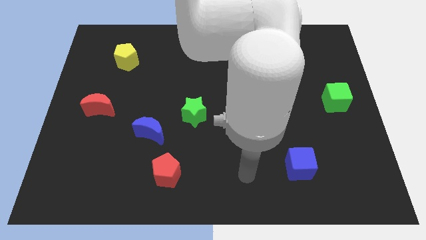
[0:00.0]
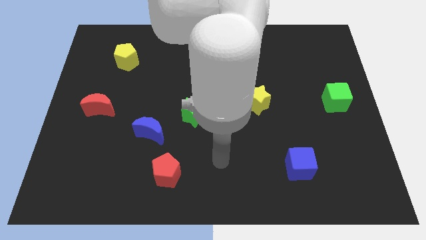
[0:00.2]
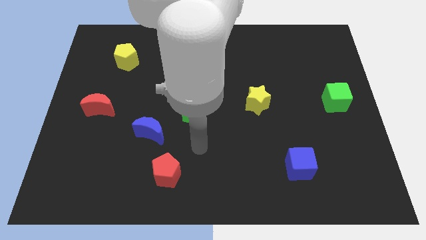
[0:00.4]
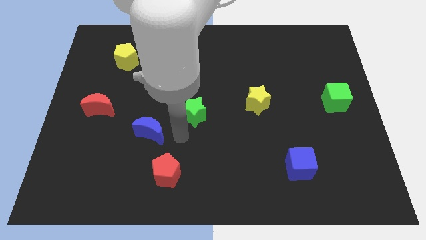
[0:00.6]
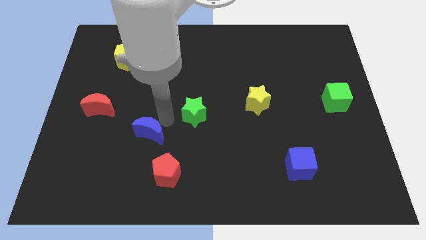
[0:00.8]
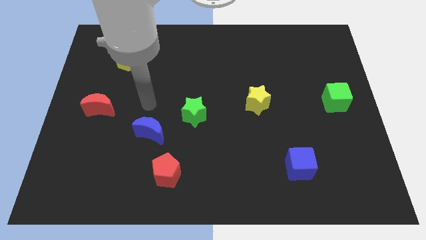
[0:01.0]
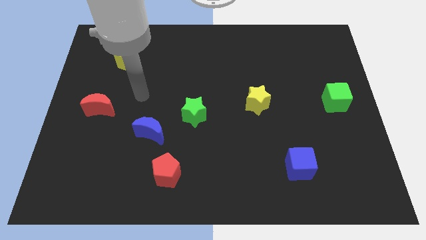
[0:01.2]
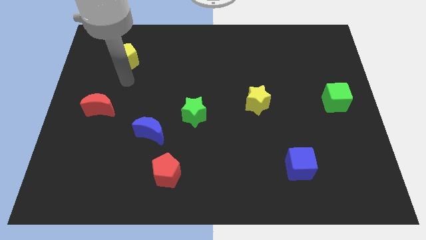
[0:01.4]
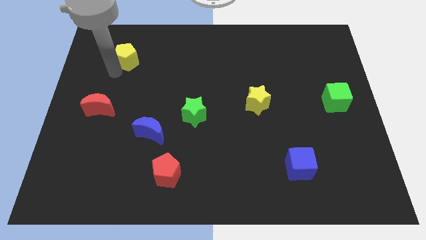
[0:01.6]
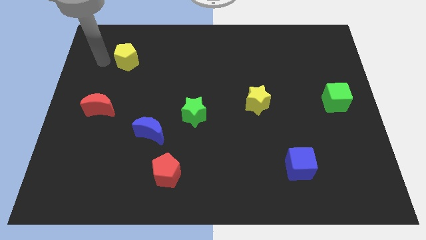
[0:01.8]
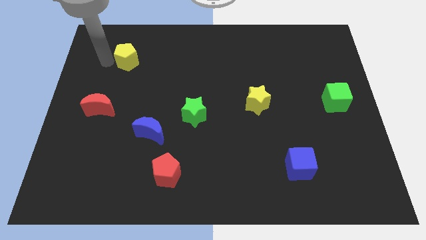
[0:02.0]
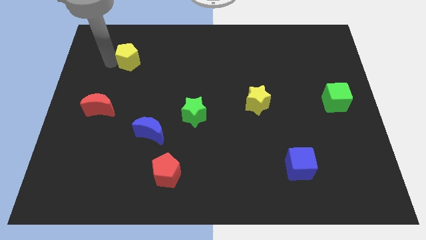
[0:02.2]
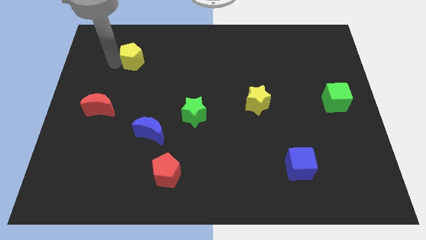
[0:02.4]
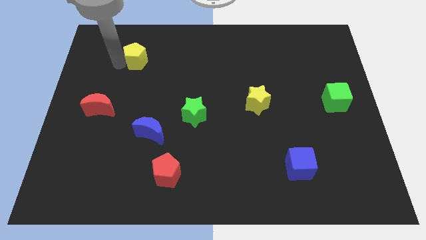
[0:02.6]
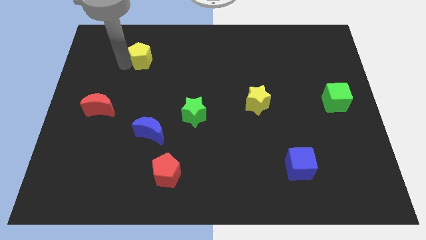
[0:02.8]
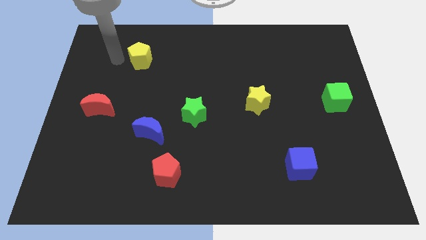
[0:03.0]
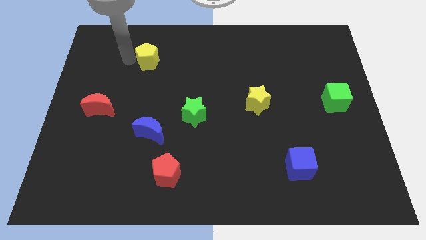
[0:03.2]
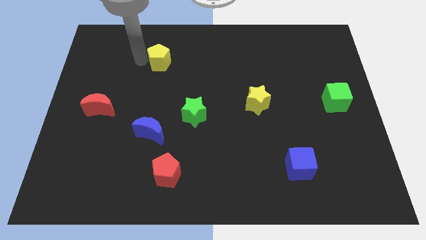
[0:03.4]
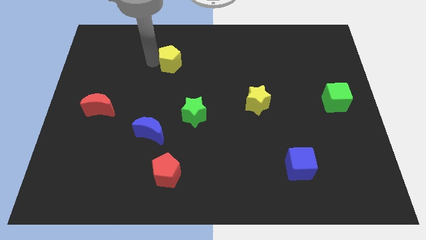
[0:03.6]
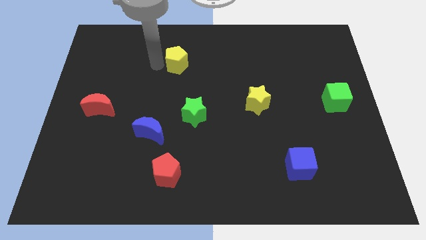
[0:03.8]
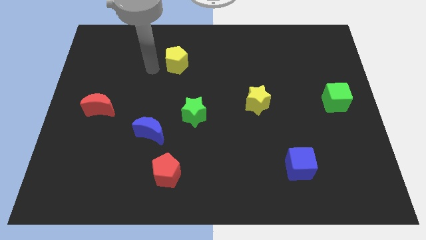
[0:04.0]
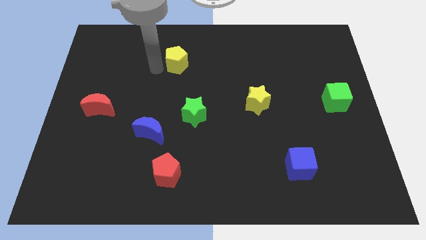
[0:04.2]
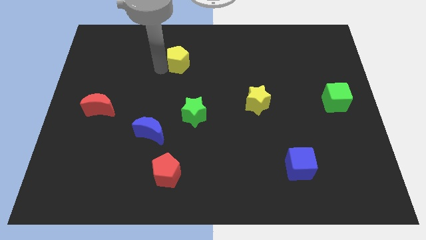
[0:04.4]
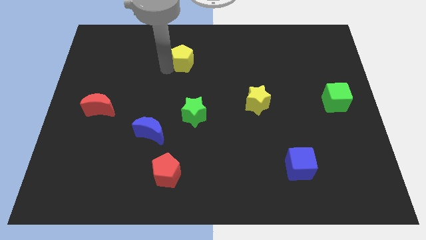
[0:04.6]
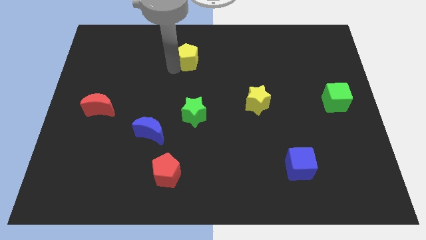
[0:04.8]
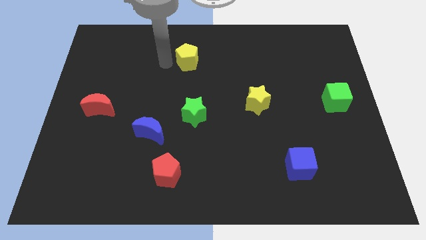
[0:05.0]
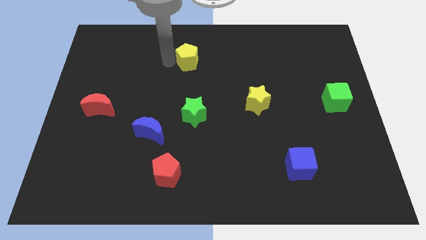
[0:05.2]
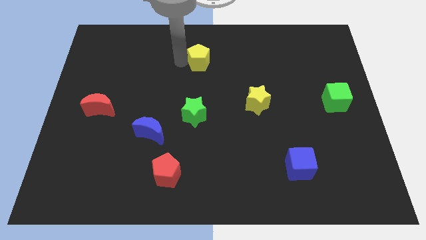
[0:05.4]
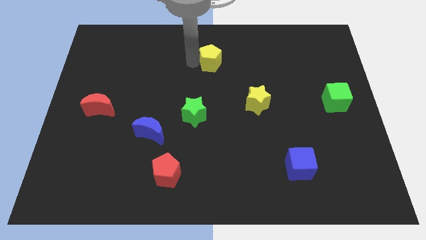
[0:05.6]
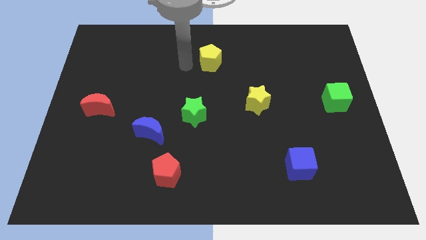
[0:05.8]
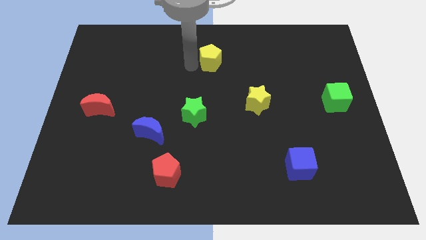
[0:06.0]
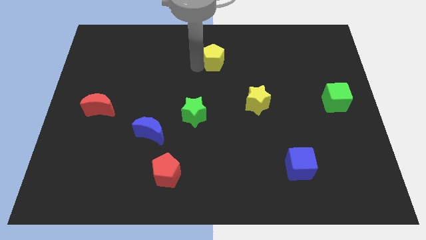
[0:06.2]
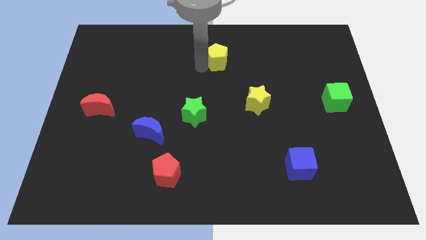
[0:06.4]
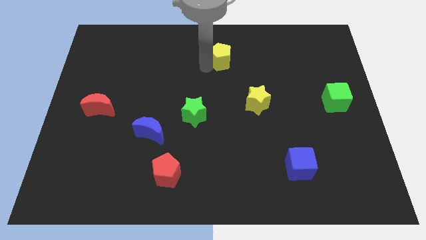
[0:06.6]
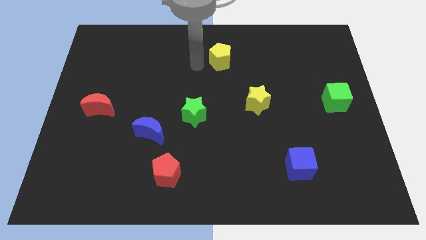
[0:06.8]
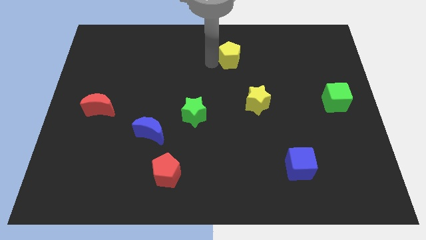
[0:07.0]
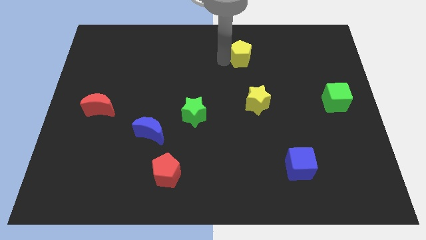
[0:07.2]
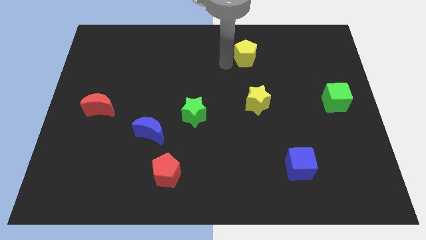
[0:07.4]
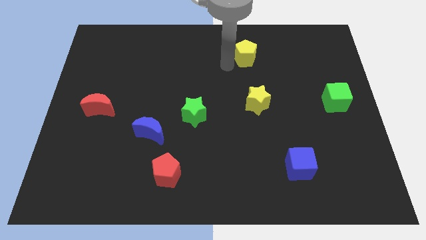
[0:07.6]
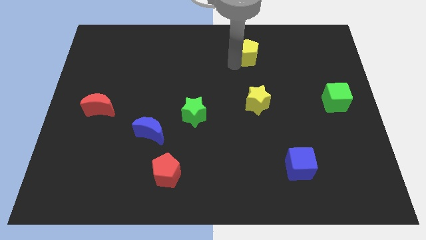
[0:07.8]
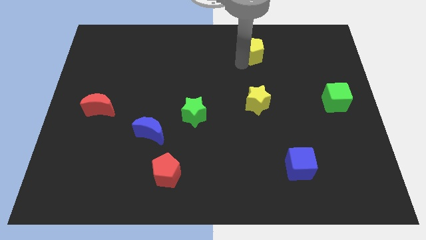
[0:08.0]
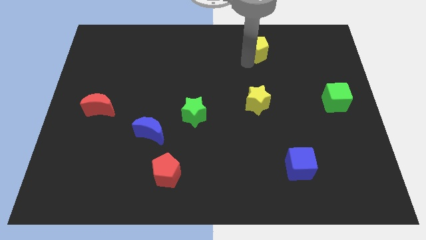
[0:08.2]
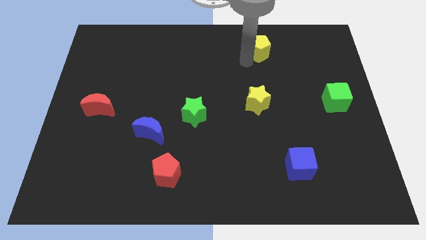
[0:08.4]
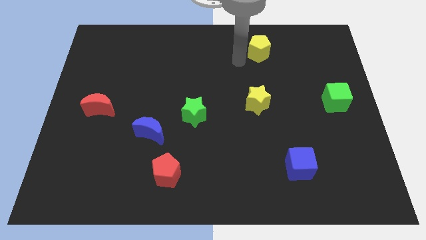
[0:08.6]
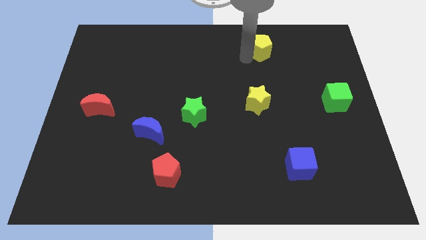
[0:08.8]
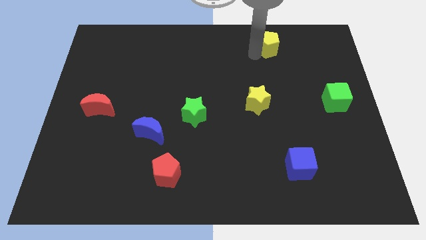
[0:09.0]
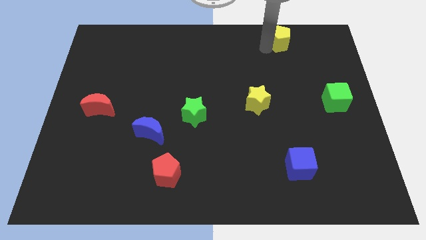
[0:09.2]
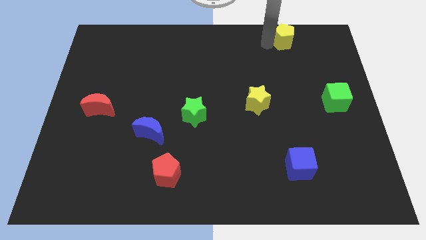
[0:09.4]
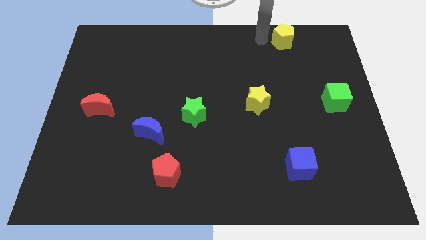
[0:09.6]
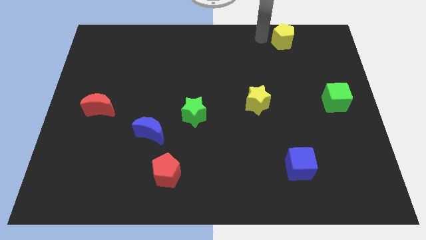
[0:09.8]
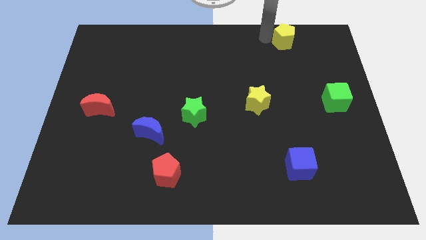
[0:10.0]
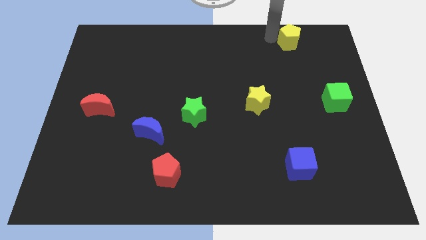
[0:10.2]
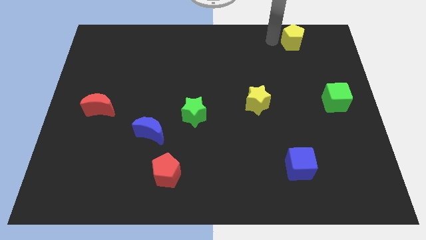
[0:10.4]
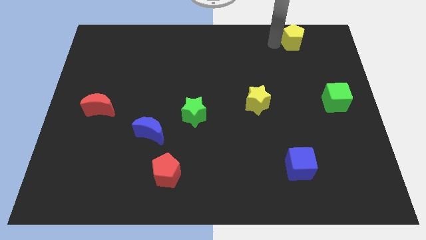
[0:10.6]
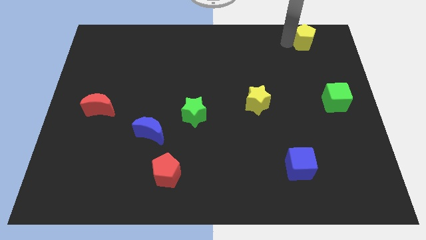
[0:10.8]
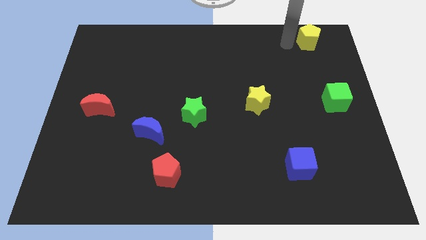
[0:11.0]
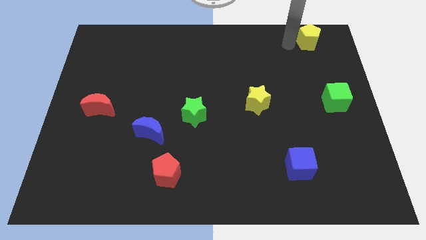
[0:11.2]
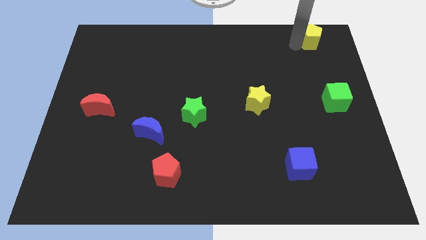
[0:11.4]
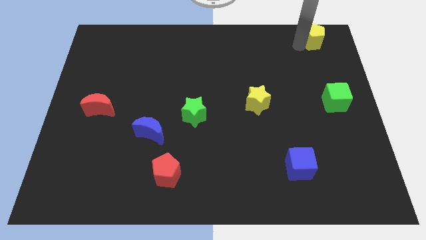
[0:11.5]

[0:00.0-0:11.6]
put the yellow pentagon to the top right
